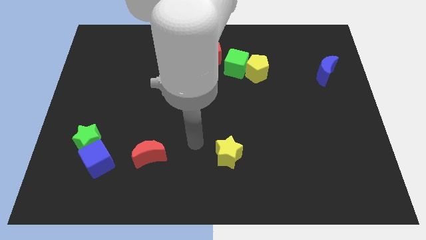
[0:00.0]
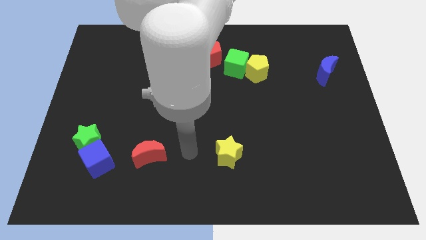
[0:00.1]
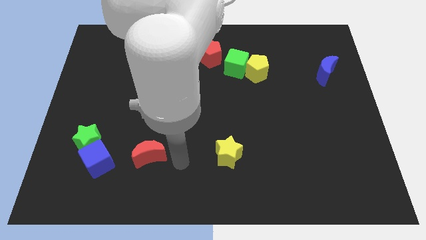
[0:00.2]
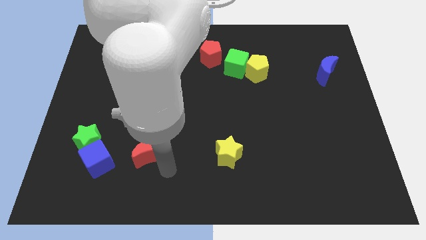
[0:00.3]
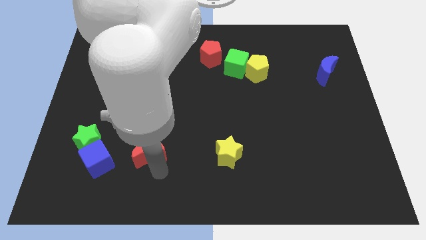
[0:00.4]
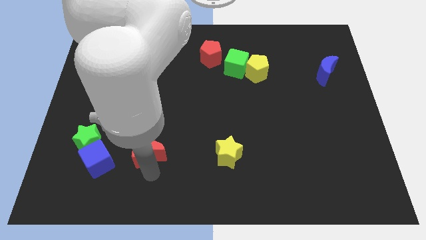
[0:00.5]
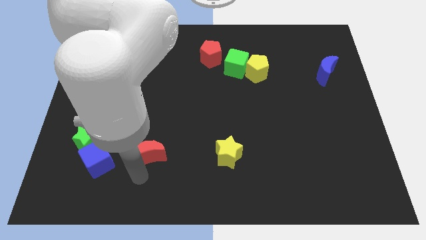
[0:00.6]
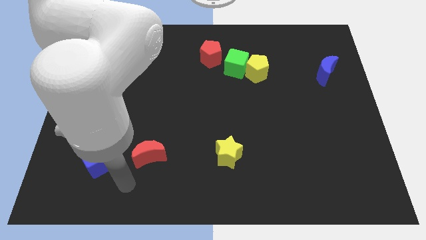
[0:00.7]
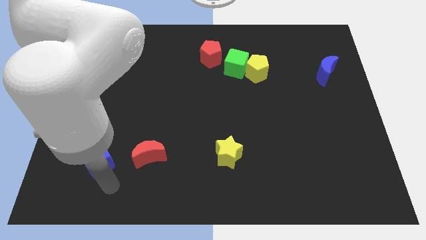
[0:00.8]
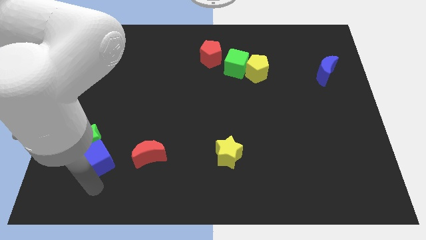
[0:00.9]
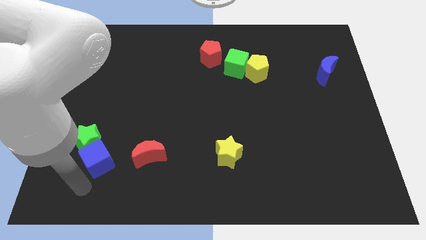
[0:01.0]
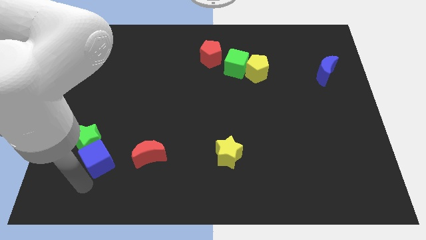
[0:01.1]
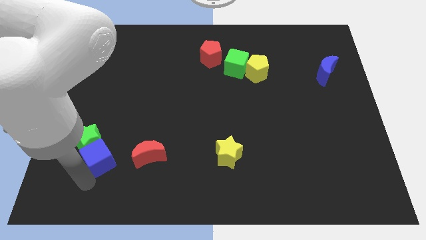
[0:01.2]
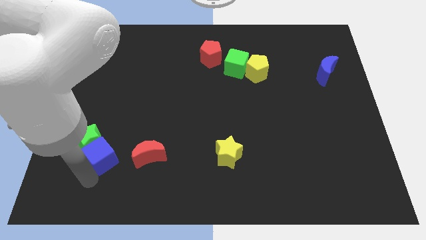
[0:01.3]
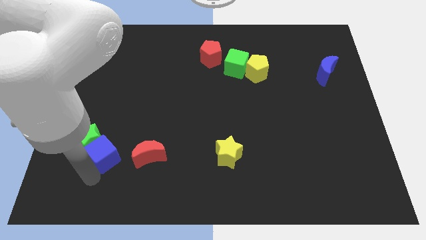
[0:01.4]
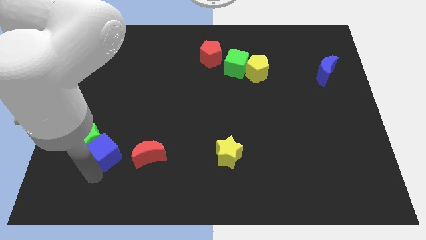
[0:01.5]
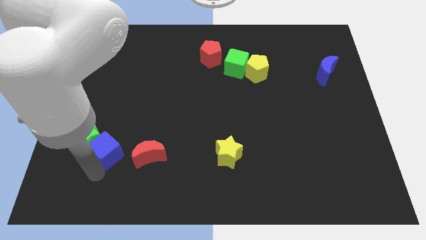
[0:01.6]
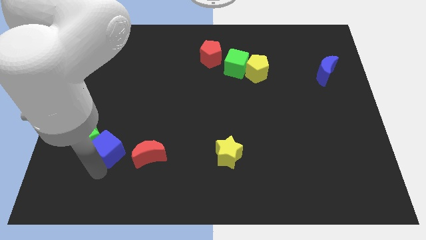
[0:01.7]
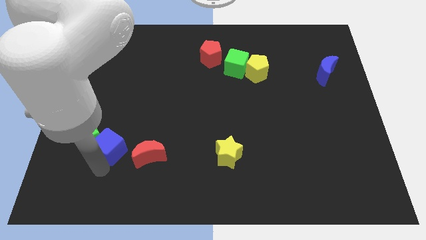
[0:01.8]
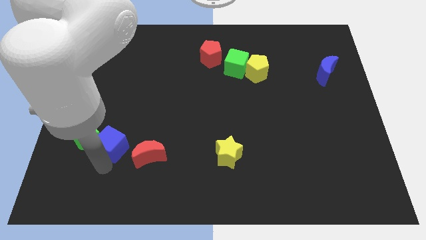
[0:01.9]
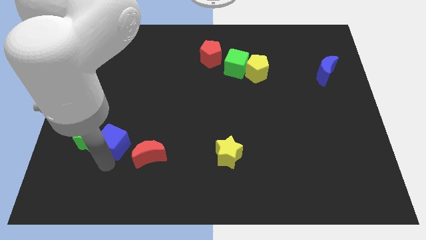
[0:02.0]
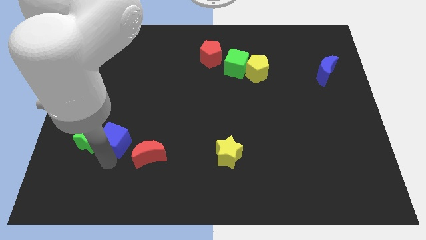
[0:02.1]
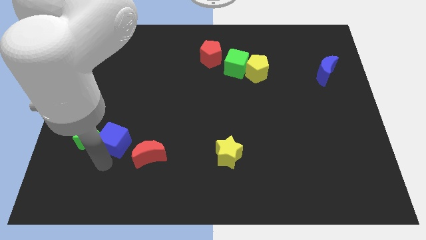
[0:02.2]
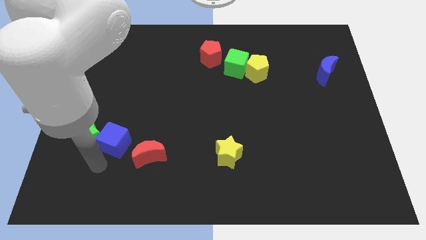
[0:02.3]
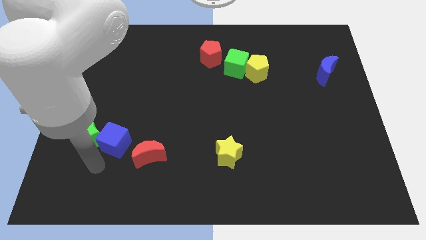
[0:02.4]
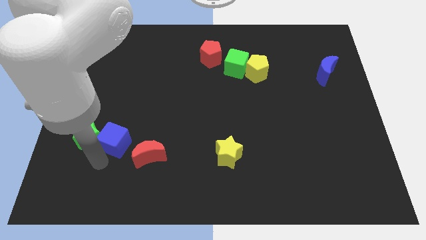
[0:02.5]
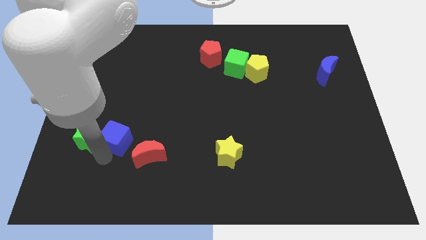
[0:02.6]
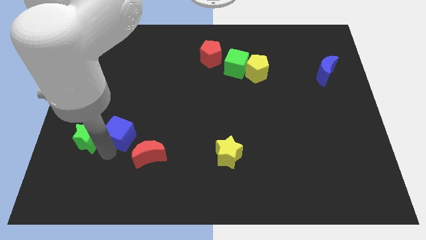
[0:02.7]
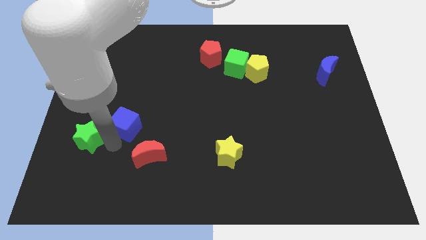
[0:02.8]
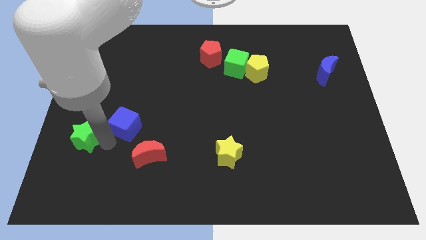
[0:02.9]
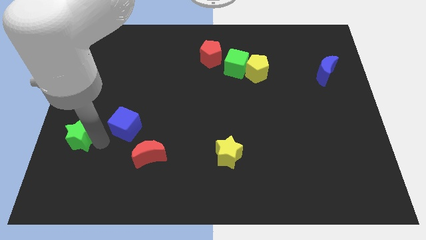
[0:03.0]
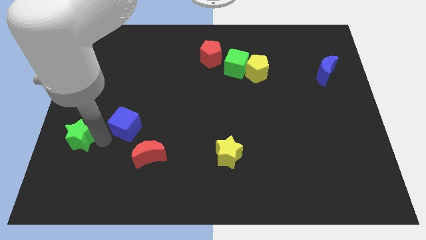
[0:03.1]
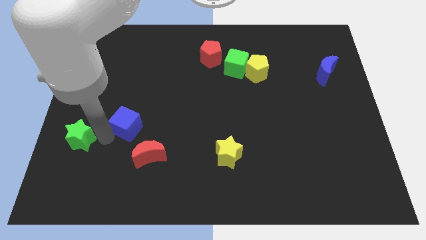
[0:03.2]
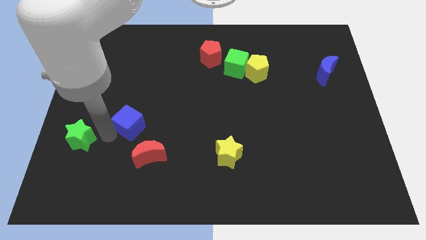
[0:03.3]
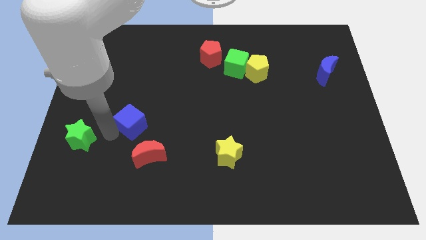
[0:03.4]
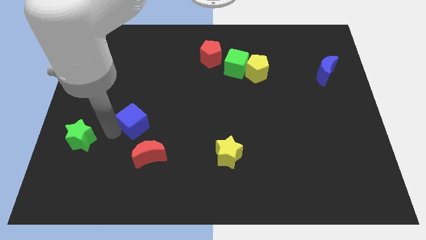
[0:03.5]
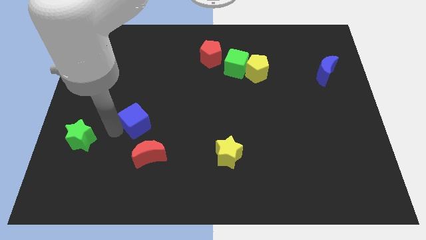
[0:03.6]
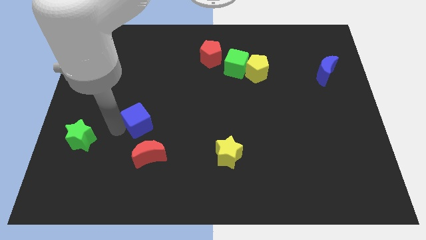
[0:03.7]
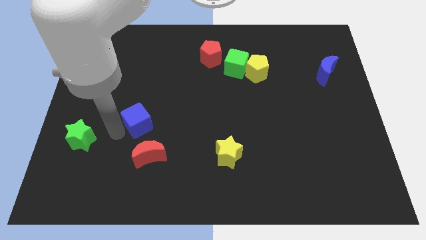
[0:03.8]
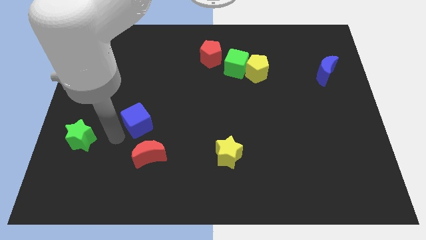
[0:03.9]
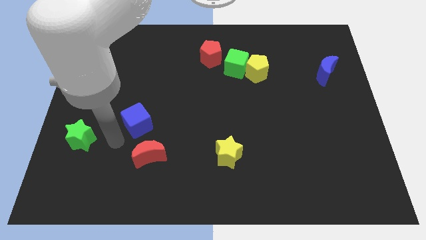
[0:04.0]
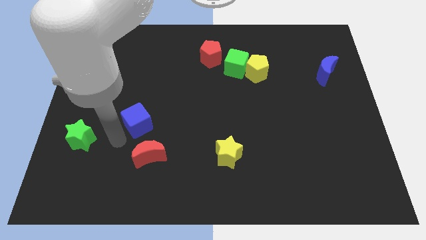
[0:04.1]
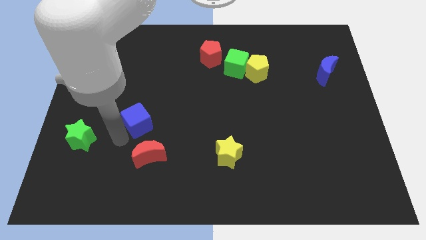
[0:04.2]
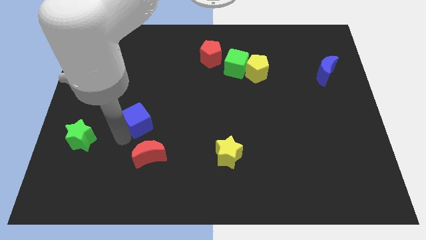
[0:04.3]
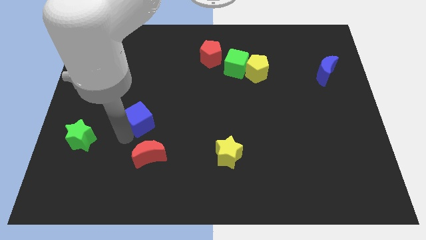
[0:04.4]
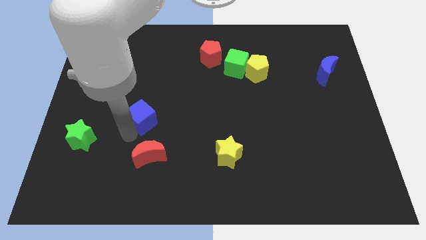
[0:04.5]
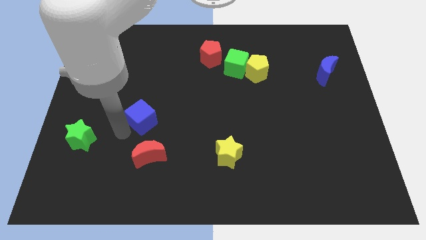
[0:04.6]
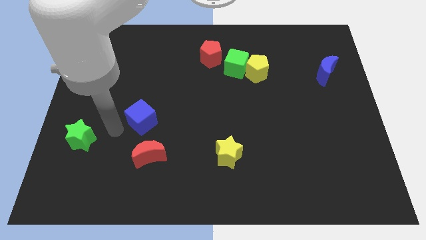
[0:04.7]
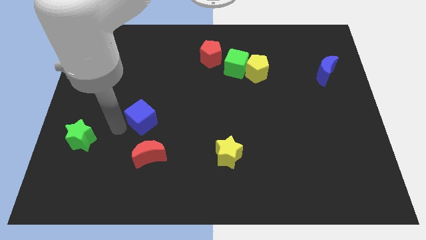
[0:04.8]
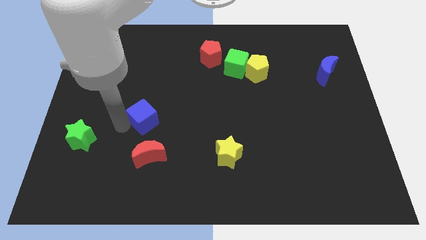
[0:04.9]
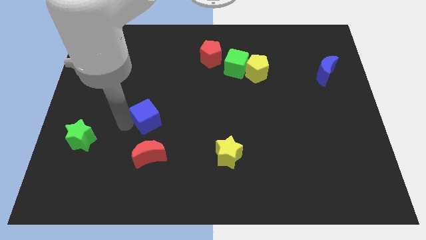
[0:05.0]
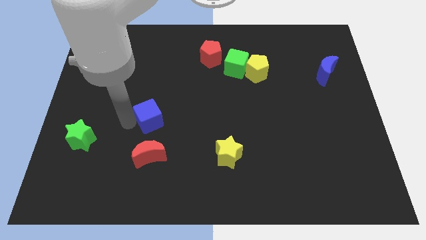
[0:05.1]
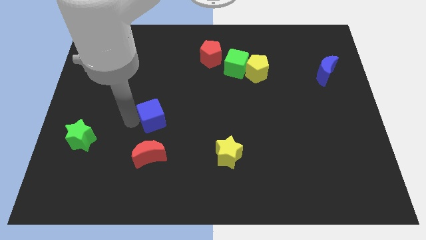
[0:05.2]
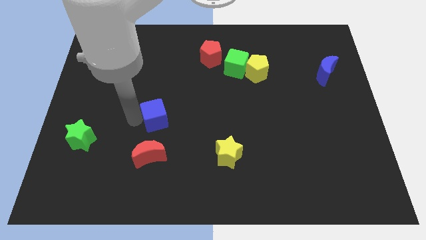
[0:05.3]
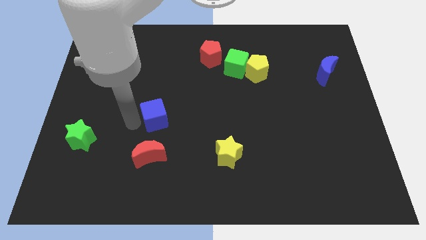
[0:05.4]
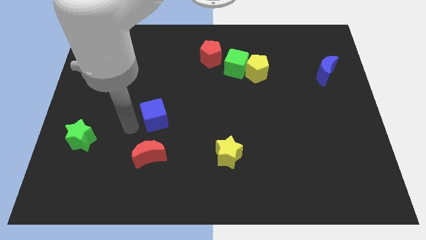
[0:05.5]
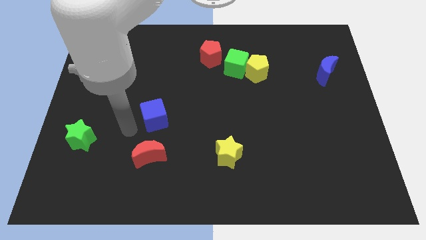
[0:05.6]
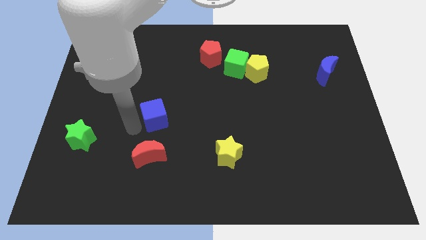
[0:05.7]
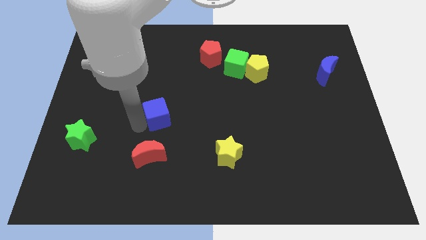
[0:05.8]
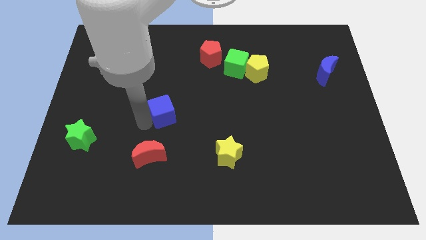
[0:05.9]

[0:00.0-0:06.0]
put the blue cube to the center of the board

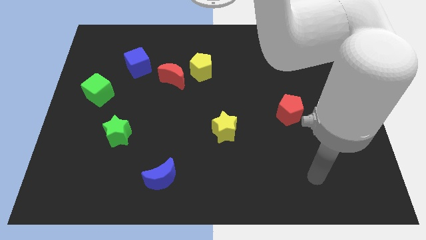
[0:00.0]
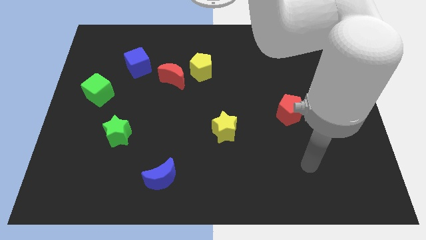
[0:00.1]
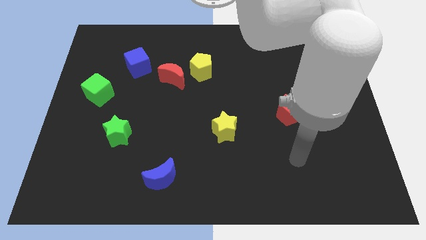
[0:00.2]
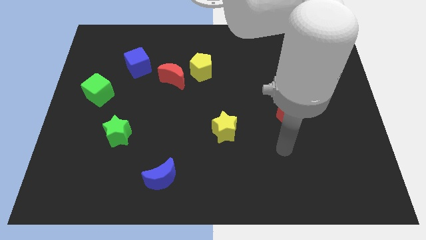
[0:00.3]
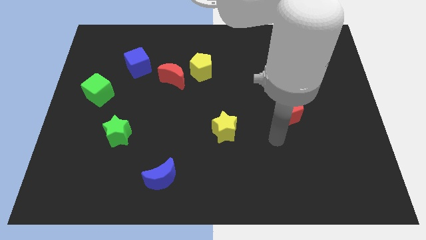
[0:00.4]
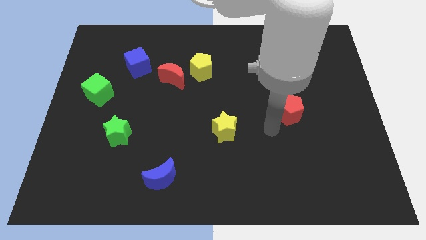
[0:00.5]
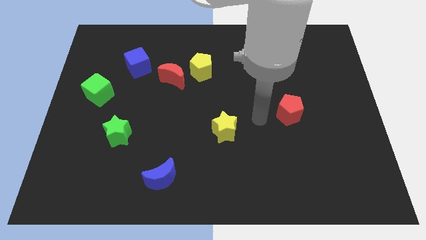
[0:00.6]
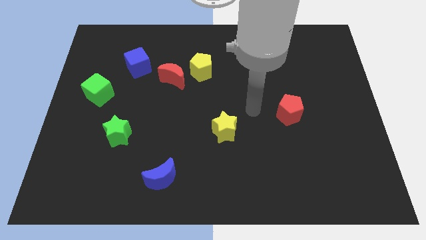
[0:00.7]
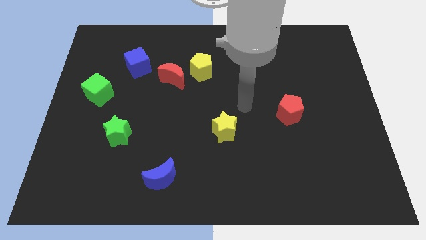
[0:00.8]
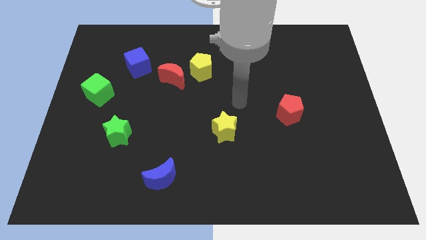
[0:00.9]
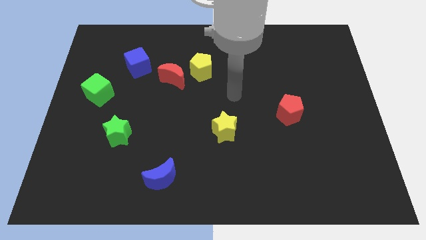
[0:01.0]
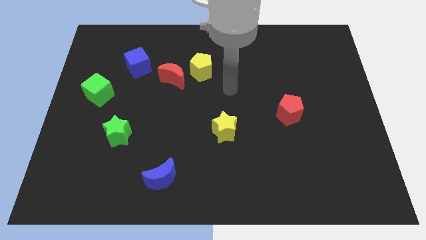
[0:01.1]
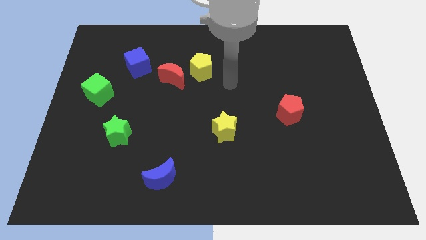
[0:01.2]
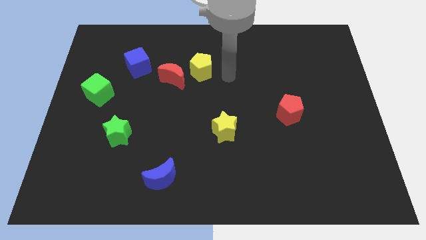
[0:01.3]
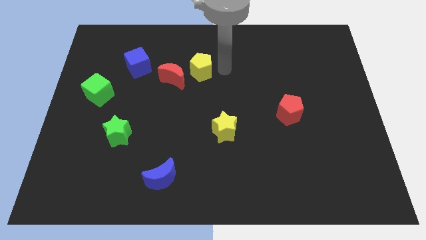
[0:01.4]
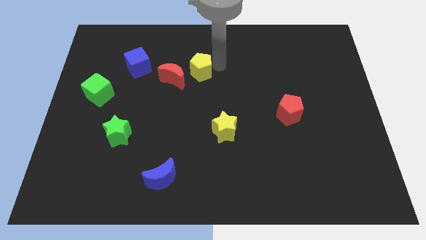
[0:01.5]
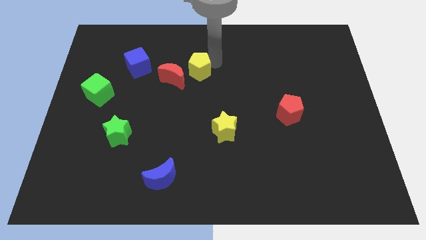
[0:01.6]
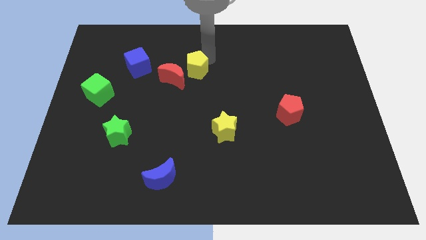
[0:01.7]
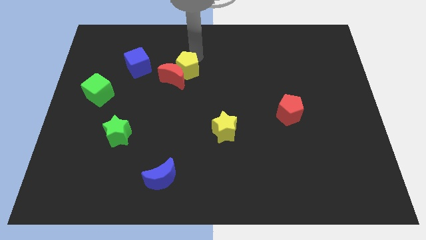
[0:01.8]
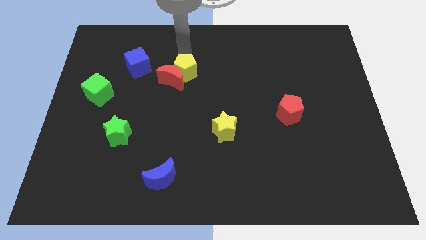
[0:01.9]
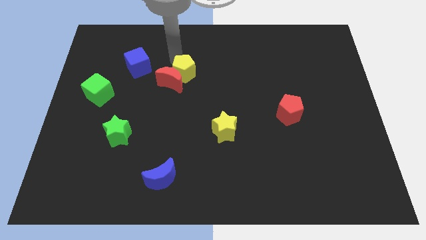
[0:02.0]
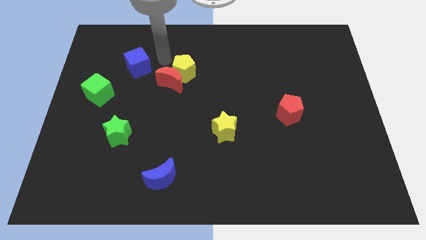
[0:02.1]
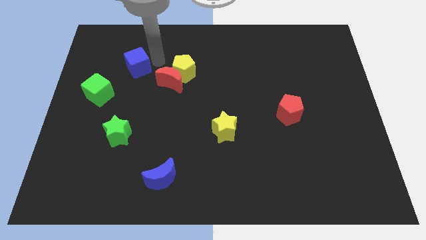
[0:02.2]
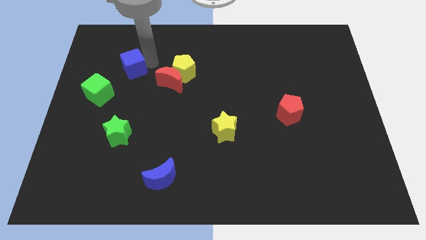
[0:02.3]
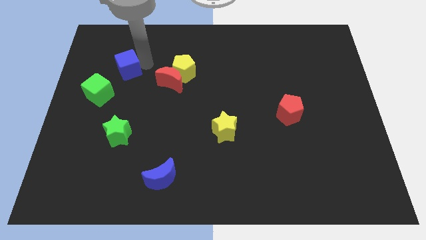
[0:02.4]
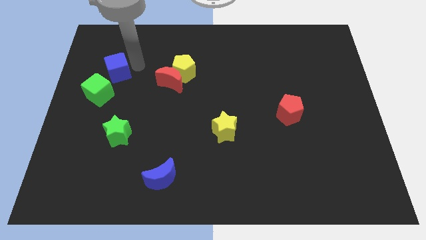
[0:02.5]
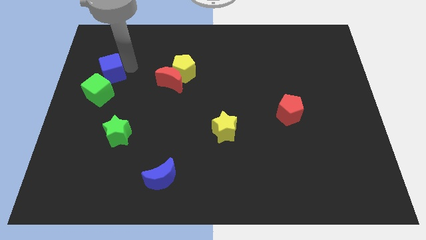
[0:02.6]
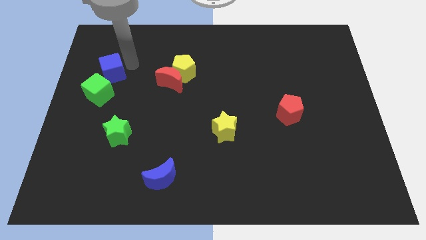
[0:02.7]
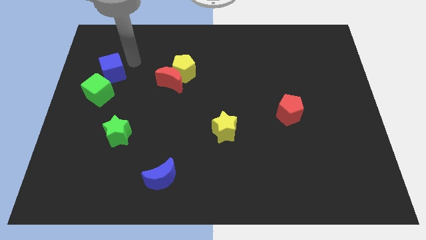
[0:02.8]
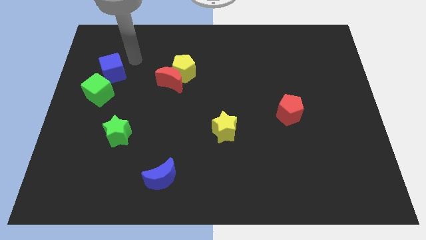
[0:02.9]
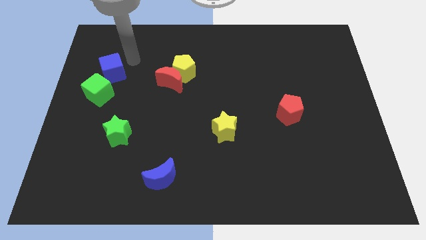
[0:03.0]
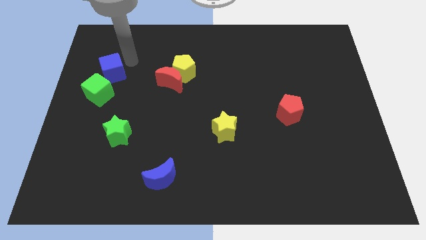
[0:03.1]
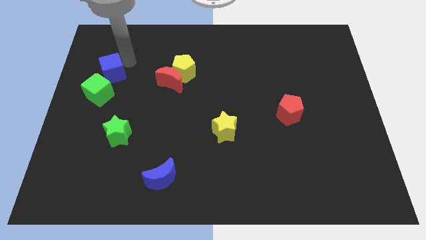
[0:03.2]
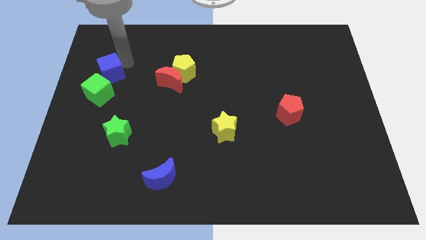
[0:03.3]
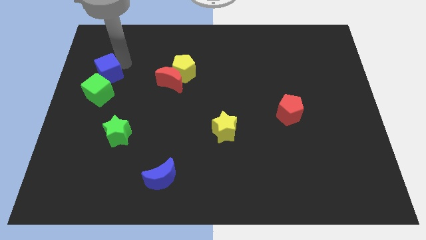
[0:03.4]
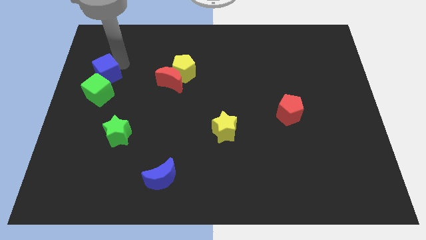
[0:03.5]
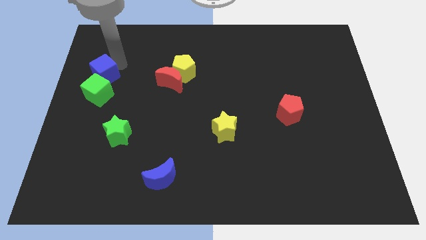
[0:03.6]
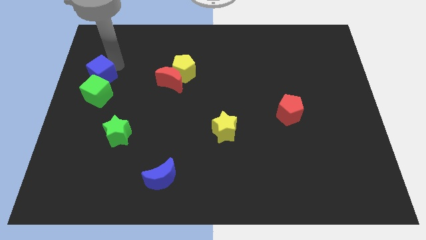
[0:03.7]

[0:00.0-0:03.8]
push the blue cube to the left side of the board
